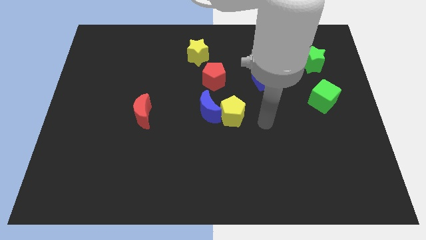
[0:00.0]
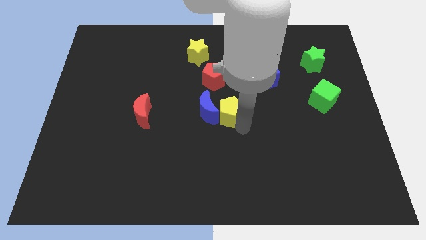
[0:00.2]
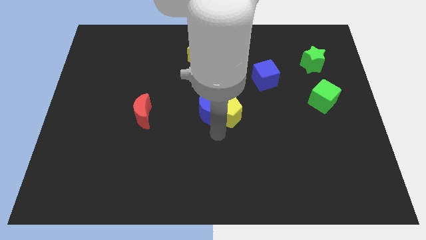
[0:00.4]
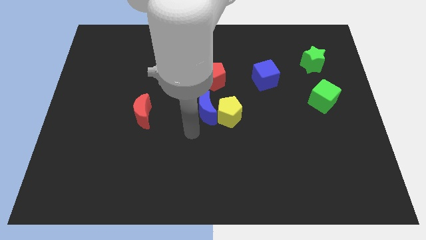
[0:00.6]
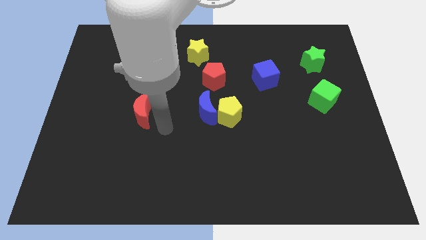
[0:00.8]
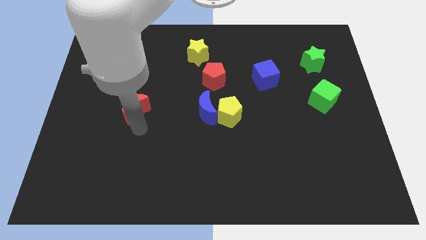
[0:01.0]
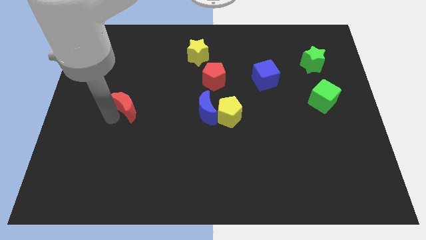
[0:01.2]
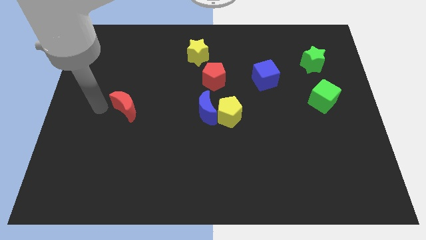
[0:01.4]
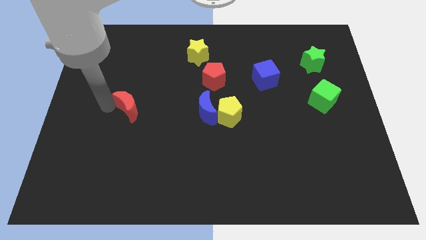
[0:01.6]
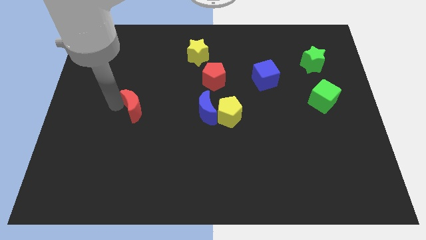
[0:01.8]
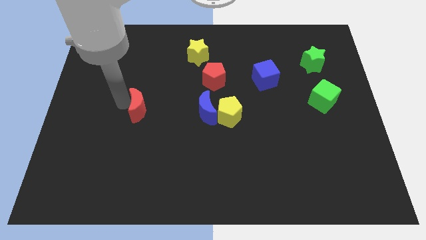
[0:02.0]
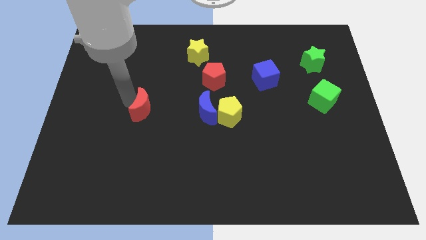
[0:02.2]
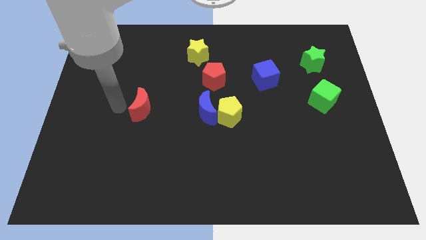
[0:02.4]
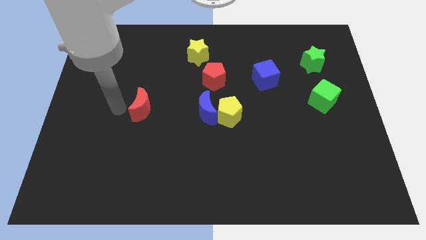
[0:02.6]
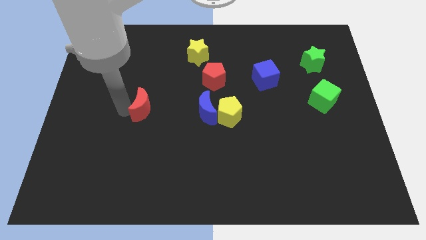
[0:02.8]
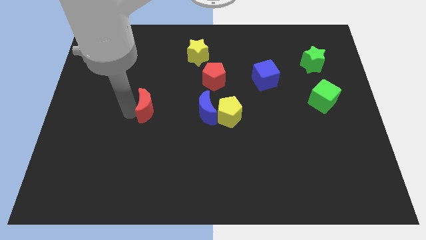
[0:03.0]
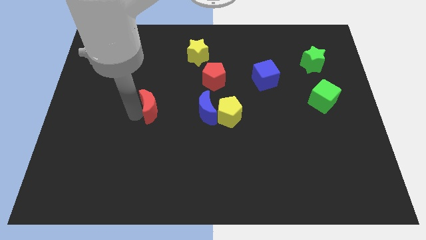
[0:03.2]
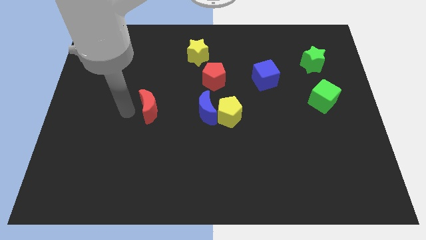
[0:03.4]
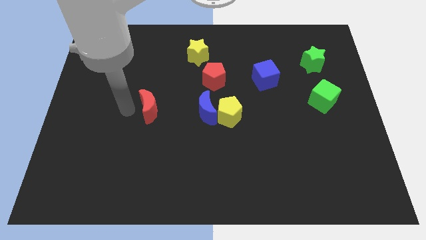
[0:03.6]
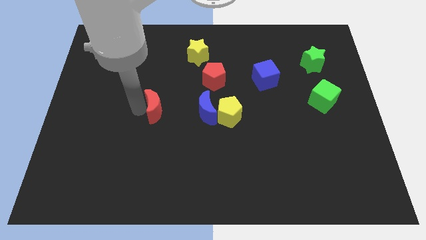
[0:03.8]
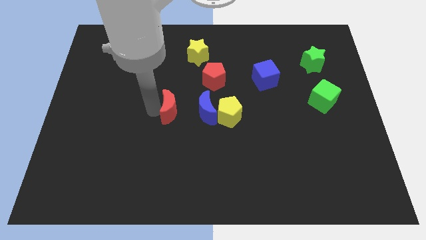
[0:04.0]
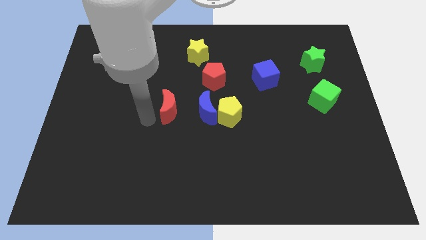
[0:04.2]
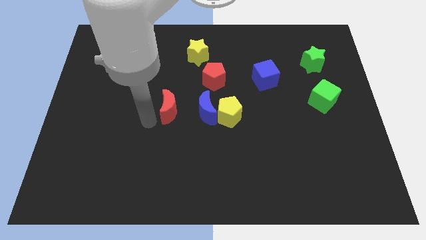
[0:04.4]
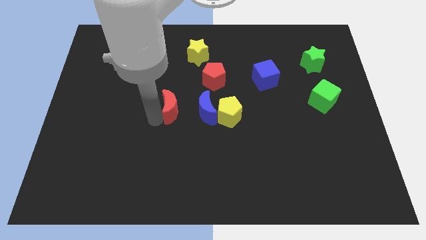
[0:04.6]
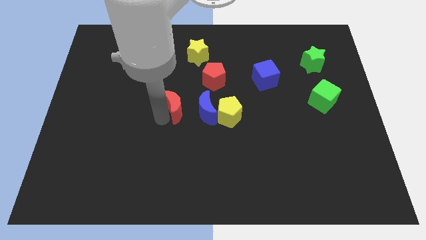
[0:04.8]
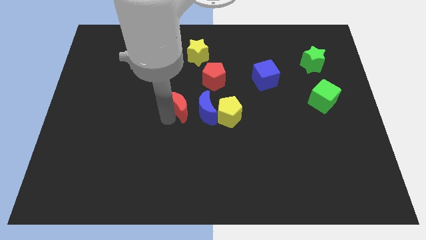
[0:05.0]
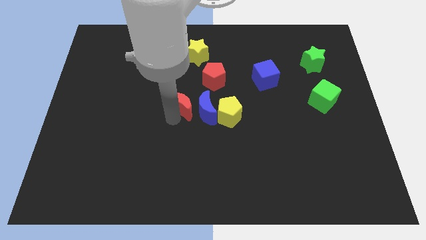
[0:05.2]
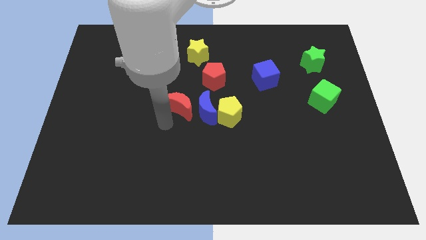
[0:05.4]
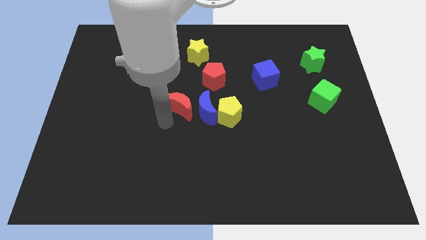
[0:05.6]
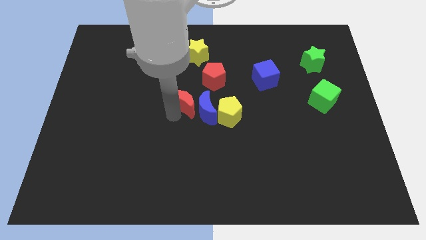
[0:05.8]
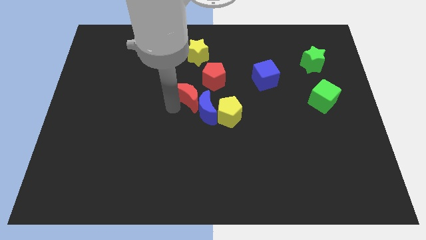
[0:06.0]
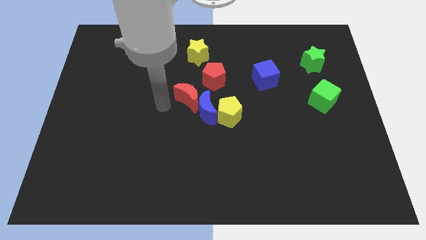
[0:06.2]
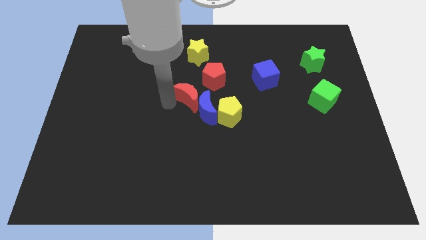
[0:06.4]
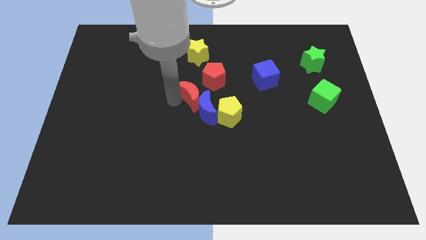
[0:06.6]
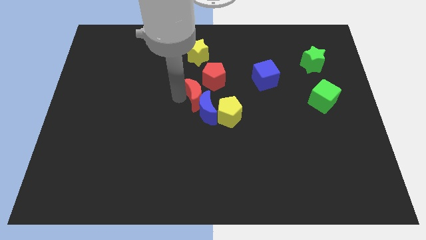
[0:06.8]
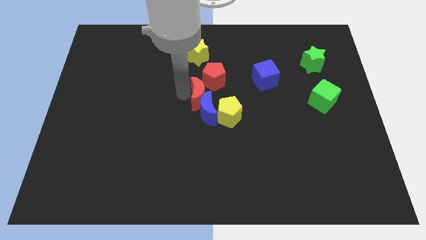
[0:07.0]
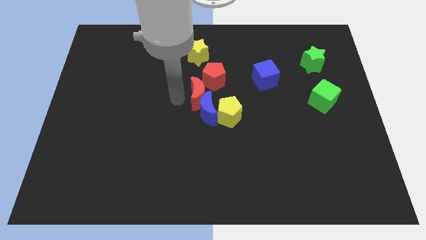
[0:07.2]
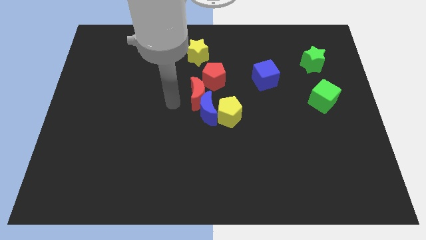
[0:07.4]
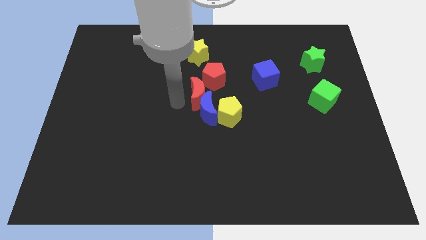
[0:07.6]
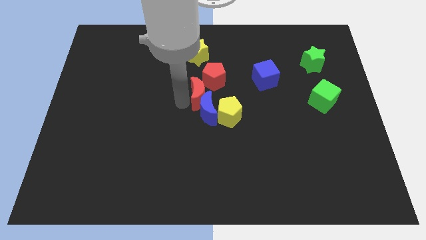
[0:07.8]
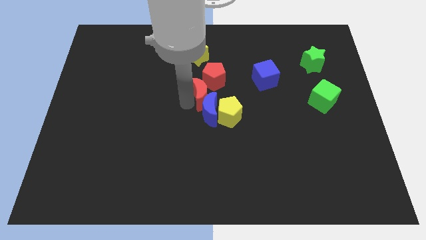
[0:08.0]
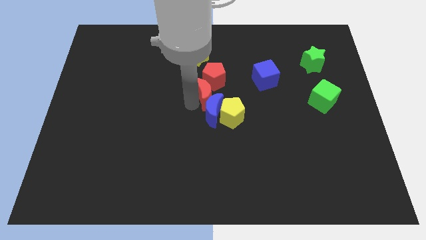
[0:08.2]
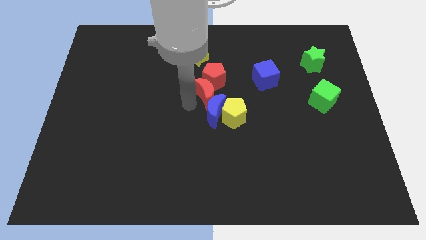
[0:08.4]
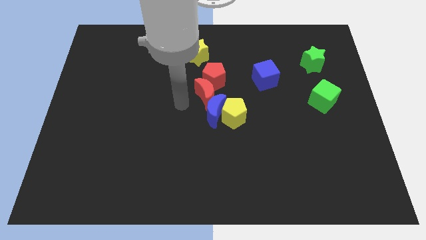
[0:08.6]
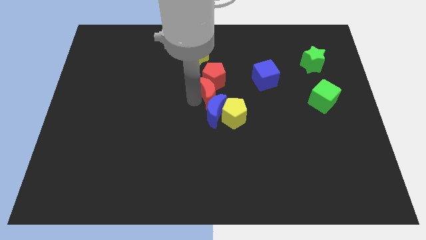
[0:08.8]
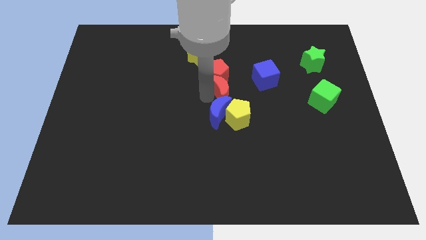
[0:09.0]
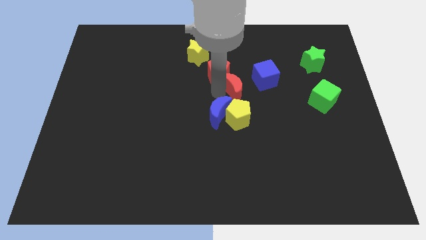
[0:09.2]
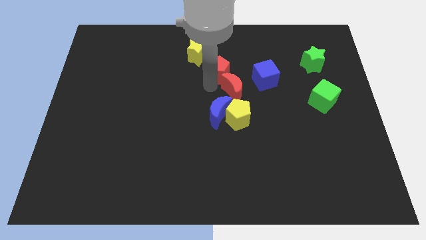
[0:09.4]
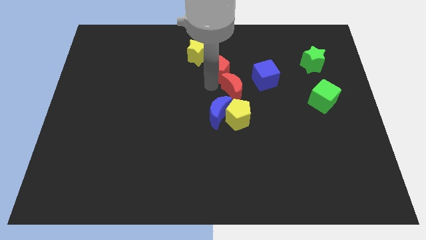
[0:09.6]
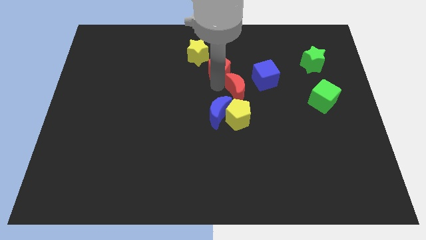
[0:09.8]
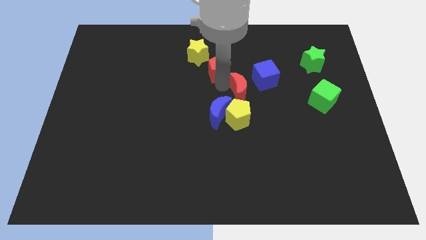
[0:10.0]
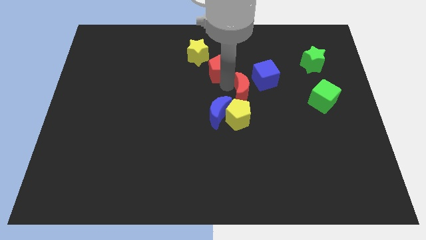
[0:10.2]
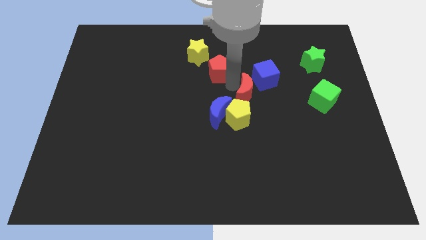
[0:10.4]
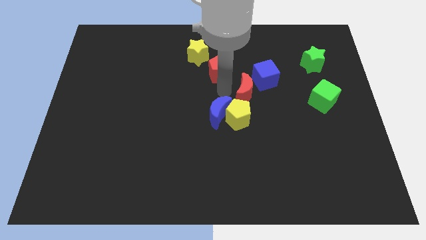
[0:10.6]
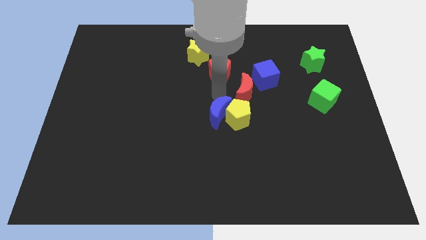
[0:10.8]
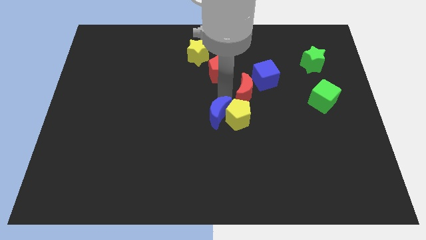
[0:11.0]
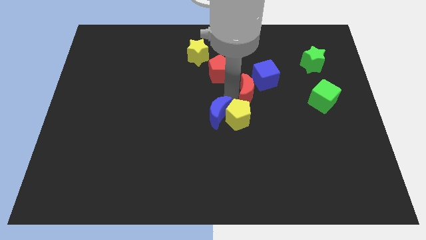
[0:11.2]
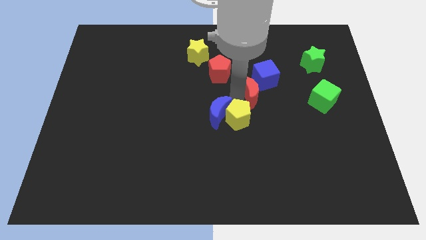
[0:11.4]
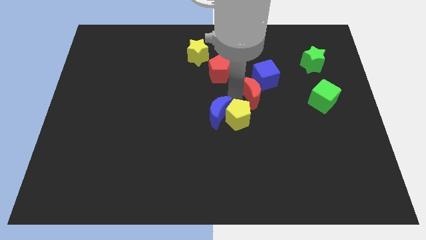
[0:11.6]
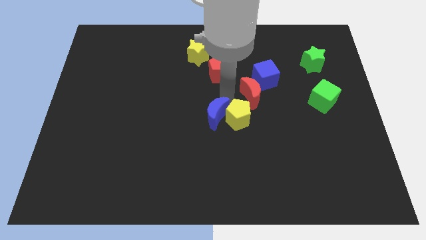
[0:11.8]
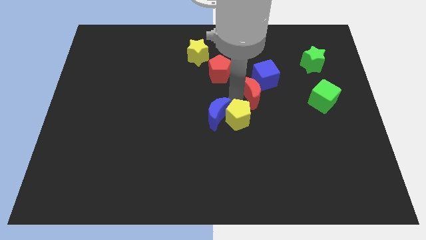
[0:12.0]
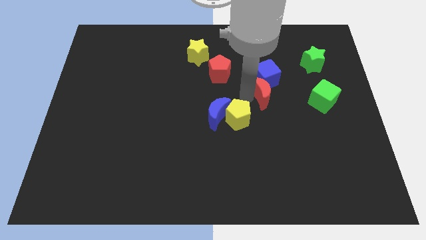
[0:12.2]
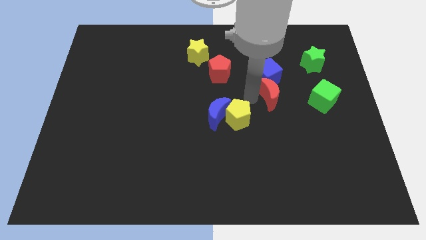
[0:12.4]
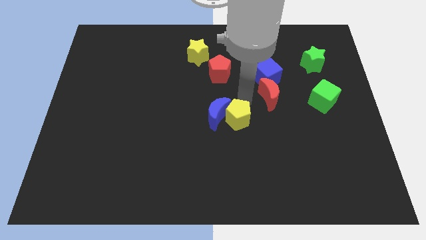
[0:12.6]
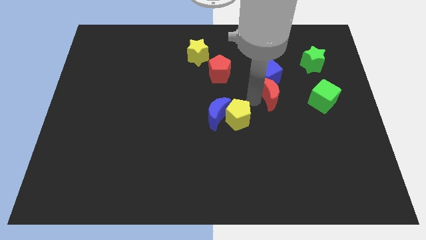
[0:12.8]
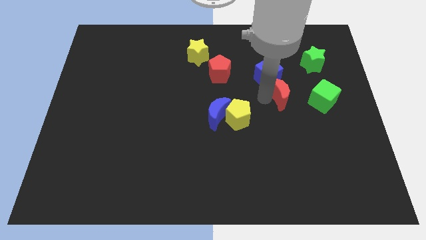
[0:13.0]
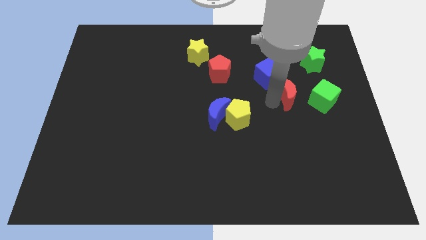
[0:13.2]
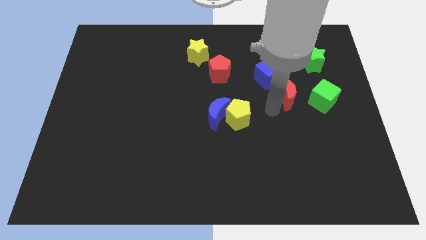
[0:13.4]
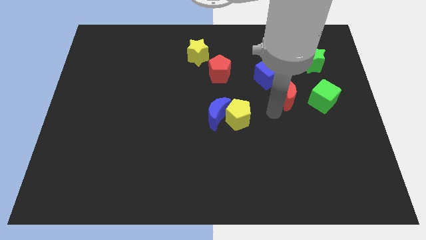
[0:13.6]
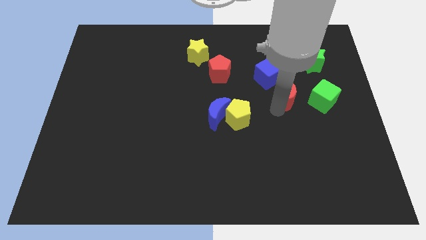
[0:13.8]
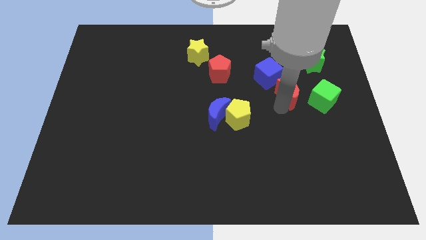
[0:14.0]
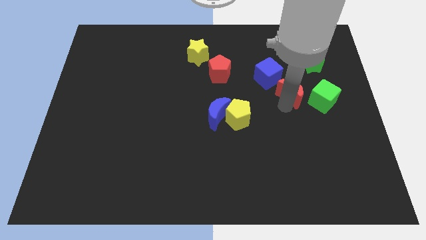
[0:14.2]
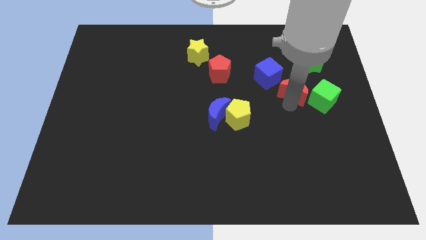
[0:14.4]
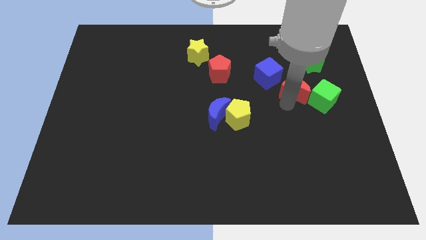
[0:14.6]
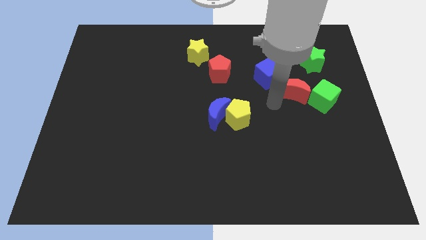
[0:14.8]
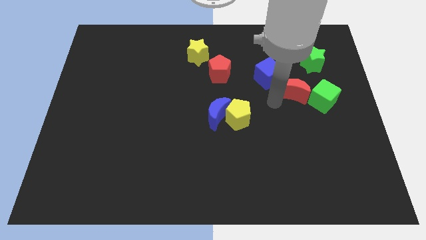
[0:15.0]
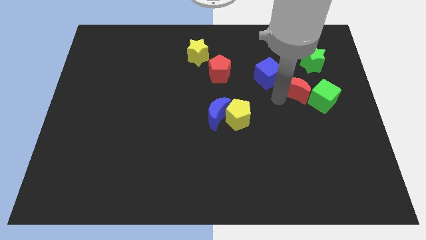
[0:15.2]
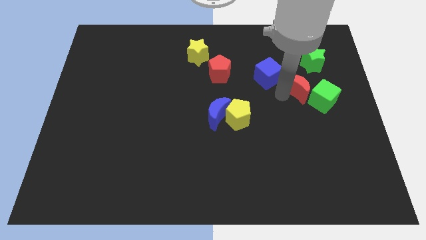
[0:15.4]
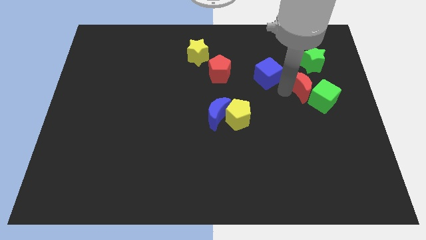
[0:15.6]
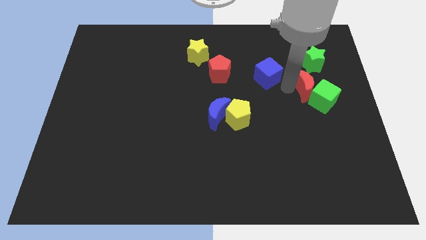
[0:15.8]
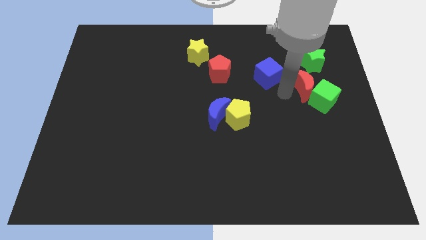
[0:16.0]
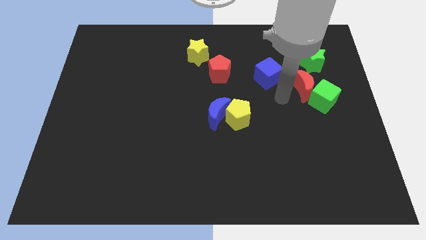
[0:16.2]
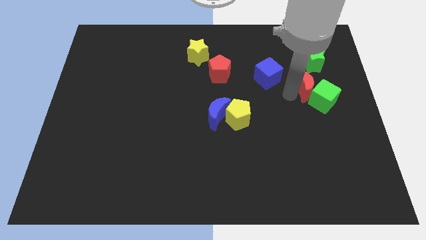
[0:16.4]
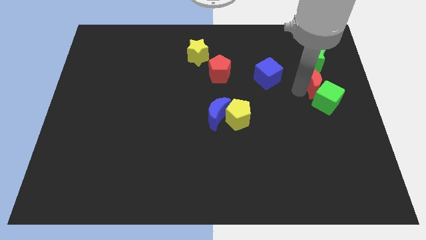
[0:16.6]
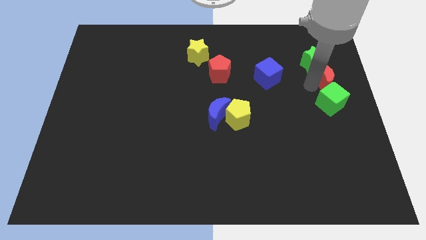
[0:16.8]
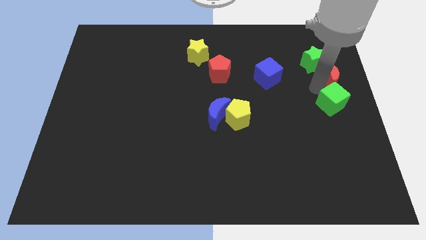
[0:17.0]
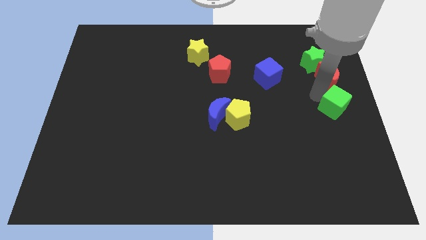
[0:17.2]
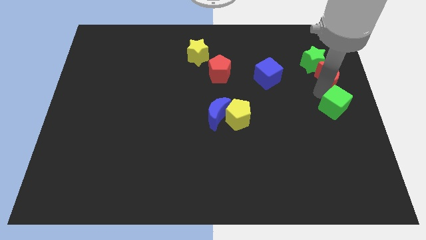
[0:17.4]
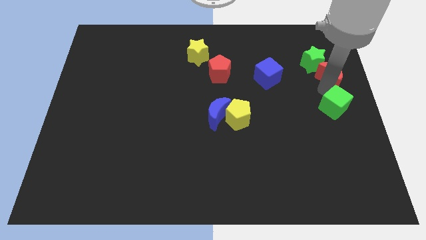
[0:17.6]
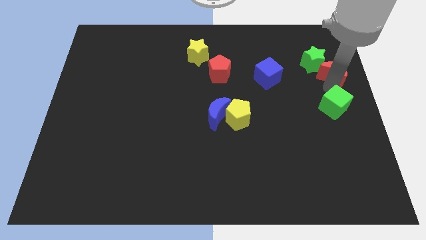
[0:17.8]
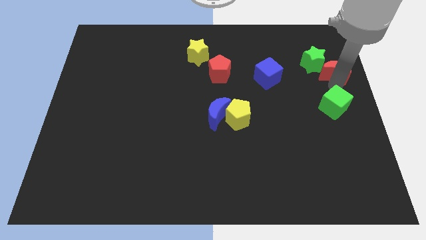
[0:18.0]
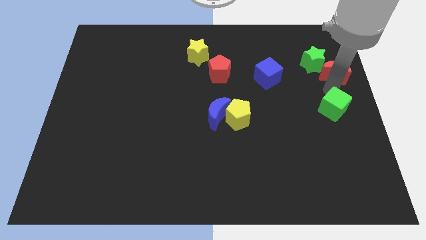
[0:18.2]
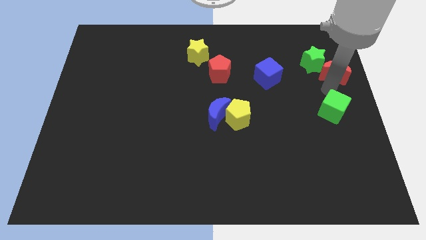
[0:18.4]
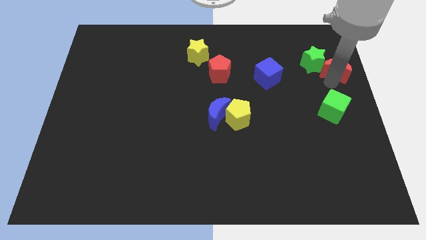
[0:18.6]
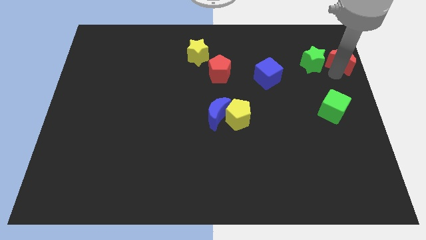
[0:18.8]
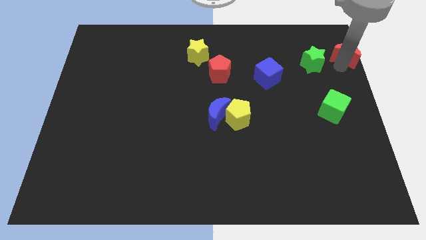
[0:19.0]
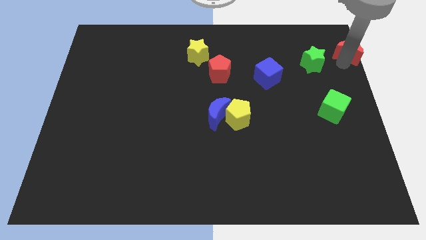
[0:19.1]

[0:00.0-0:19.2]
push the red moon to the top right of the board
